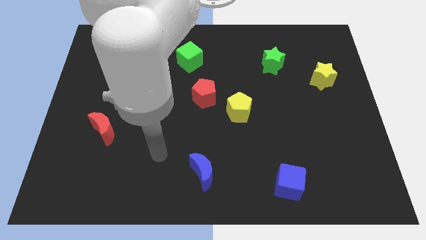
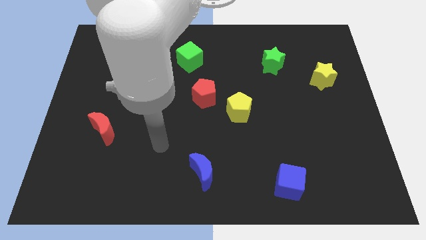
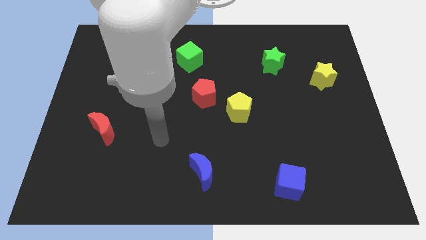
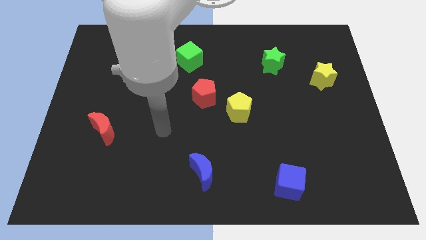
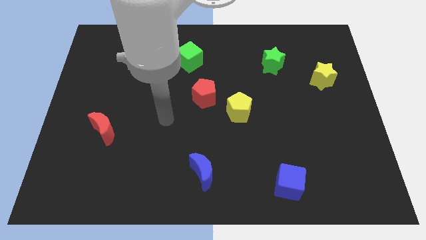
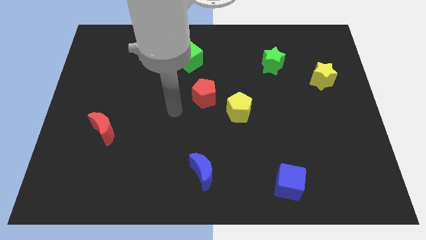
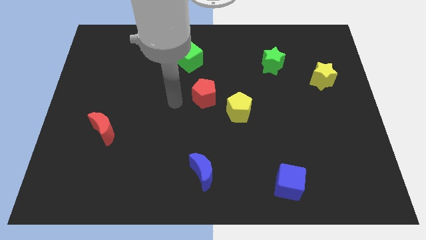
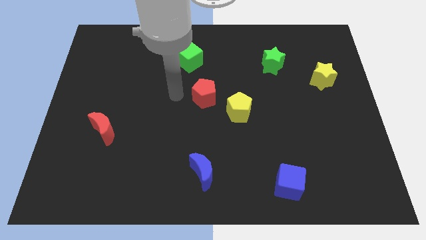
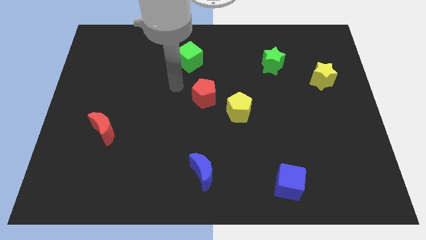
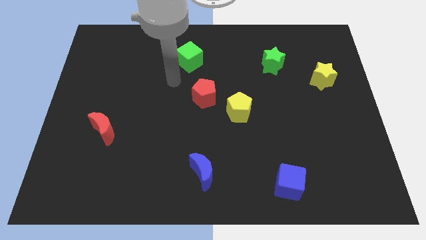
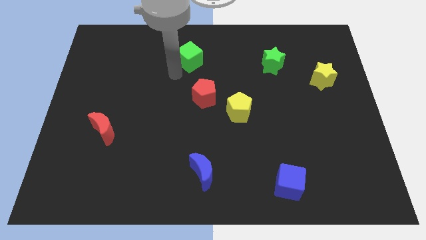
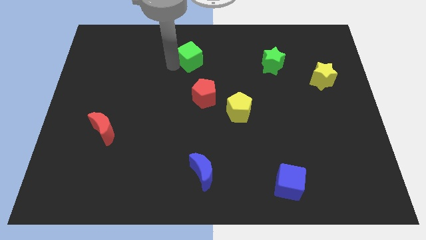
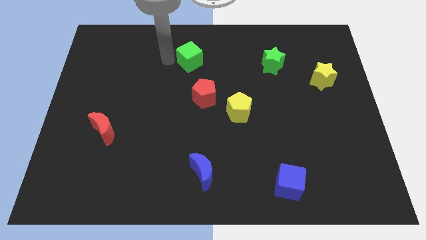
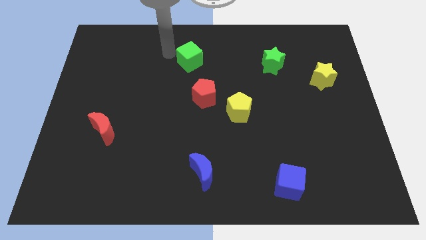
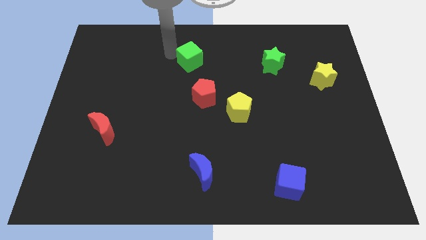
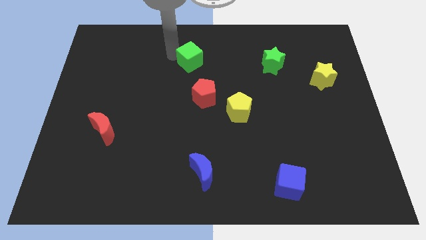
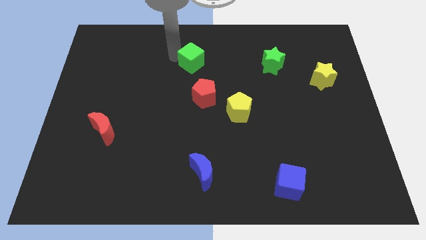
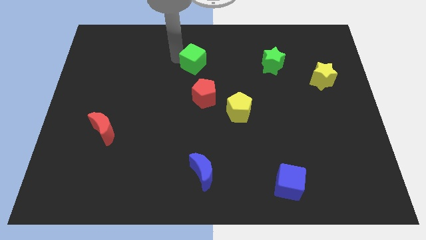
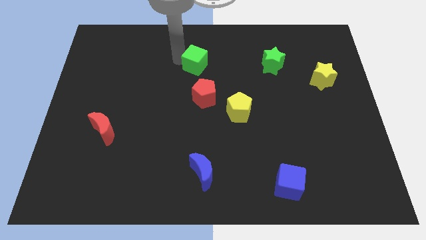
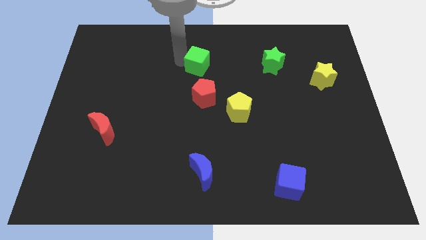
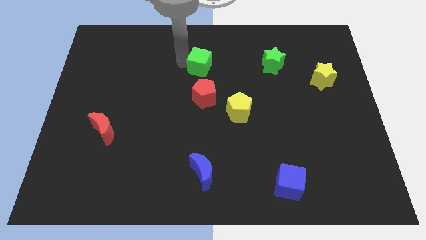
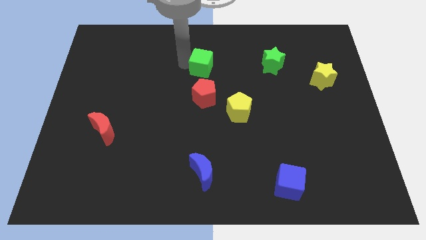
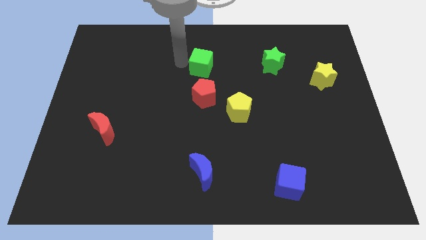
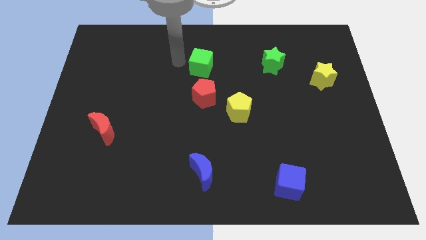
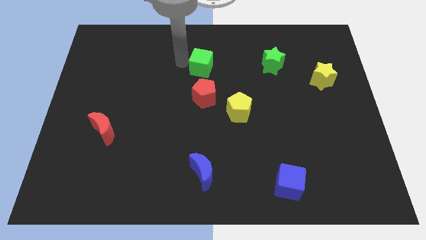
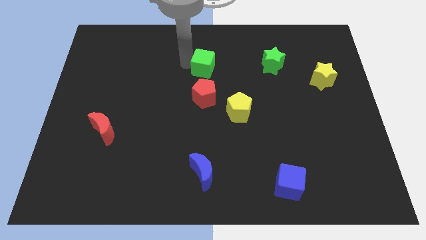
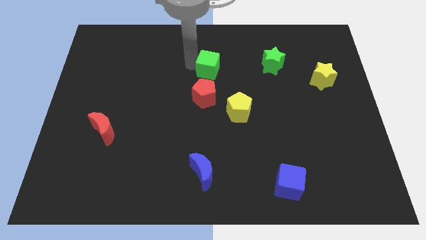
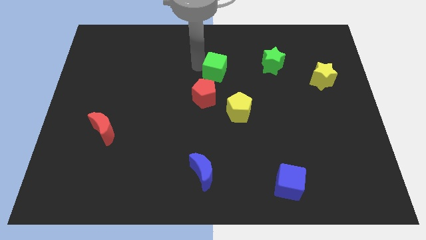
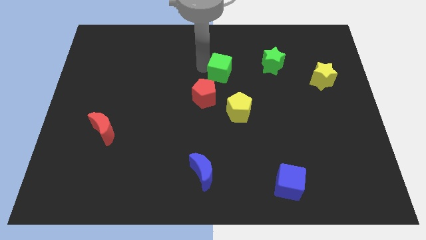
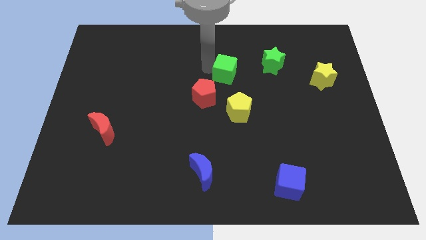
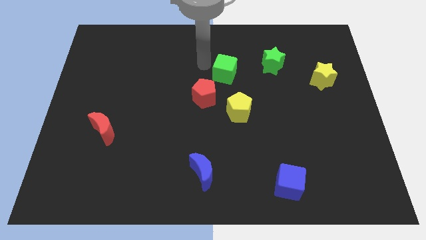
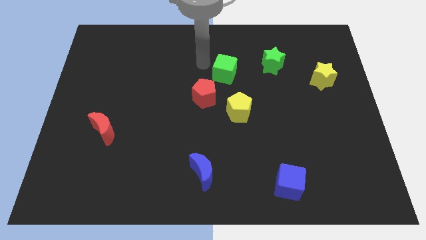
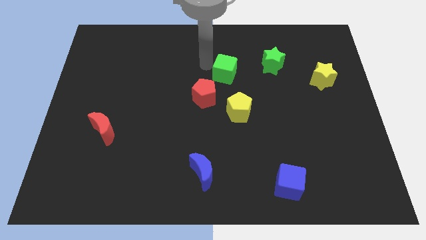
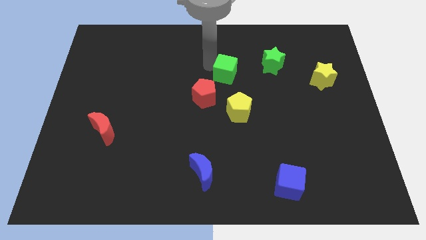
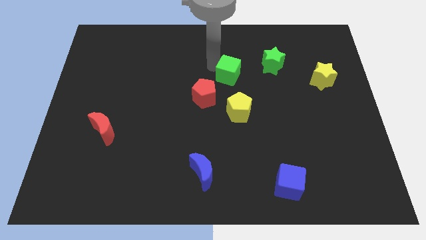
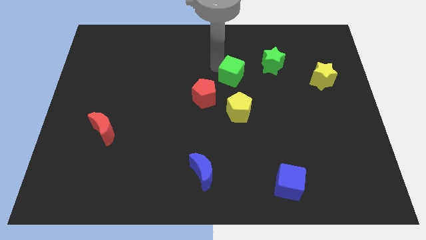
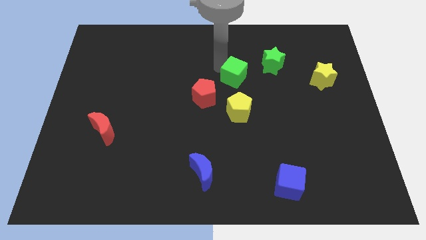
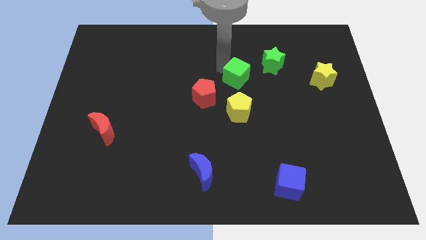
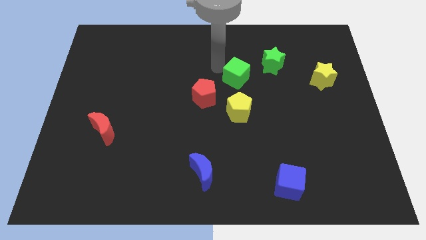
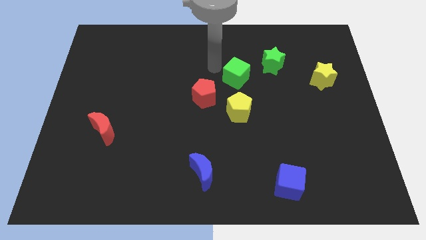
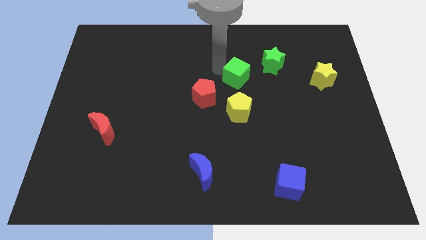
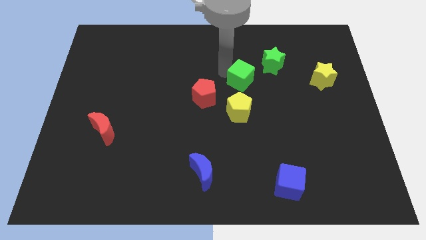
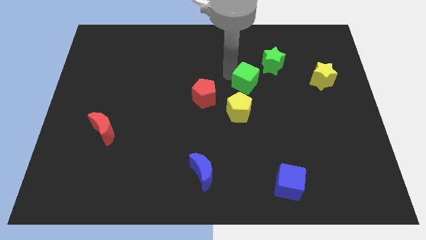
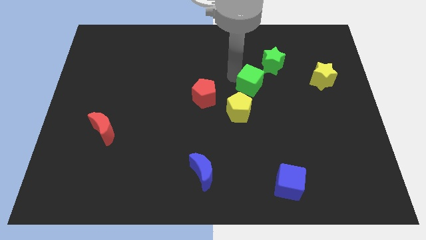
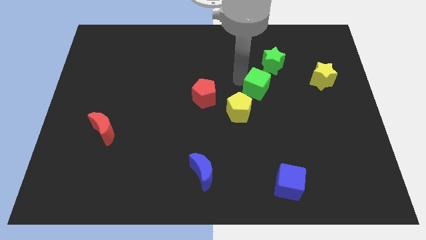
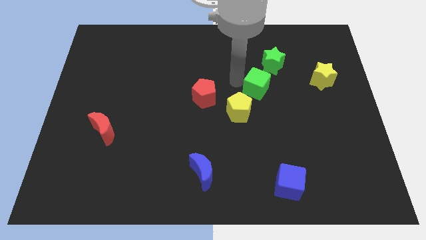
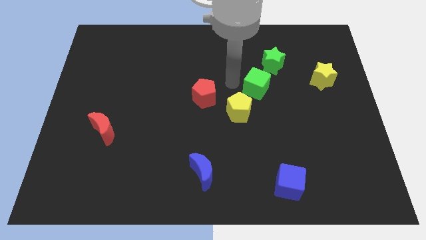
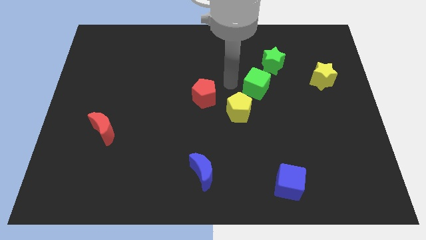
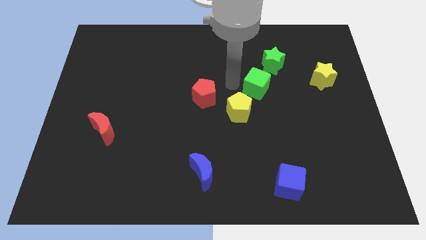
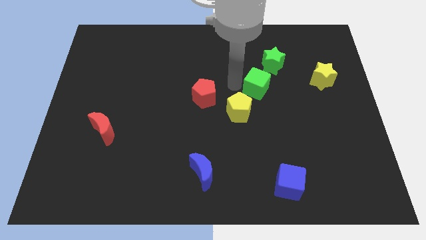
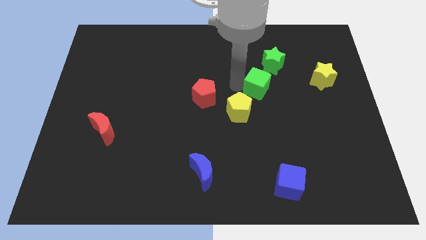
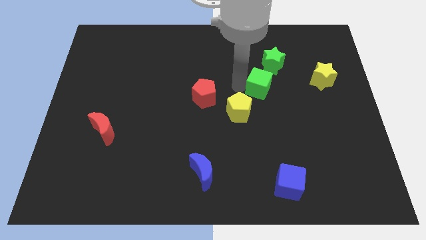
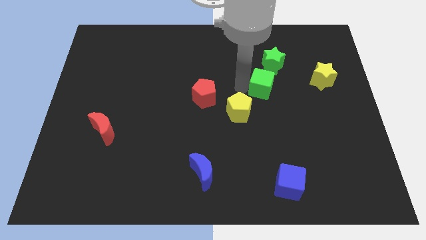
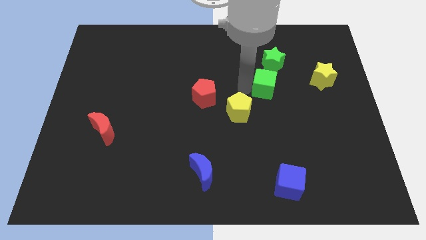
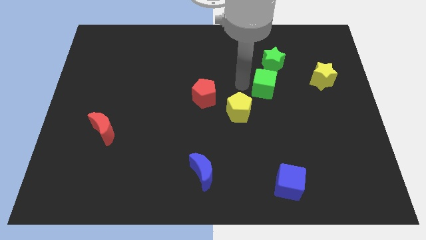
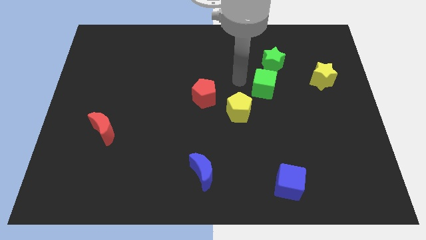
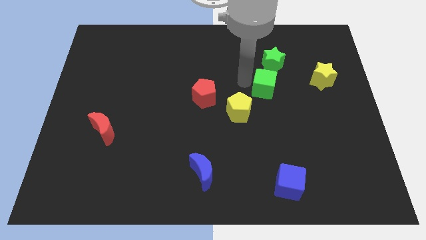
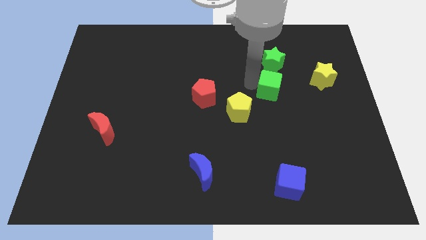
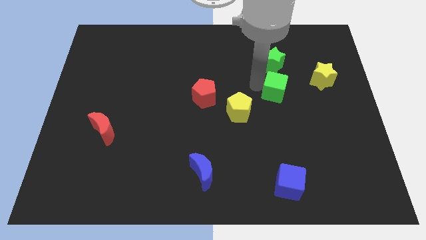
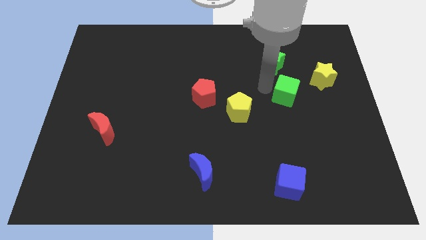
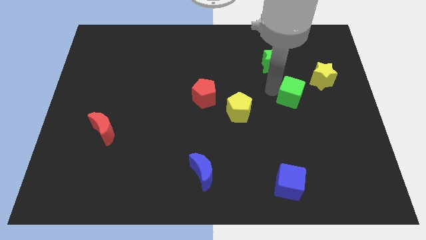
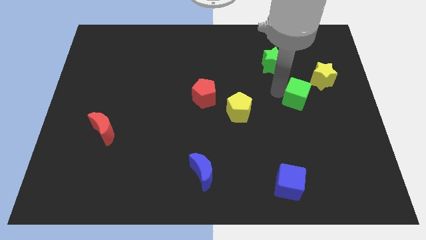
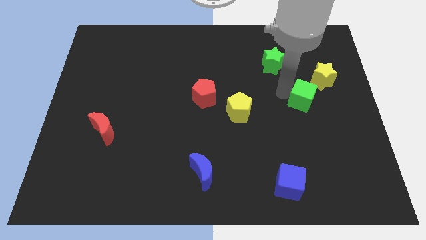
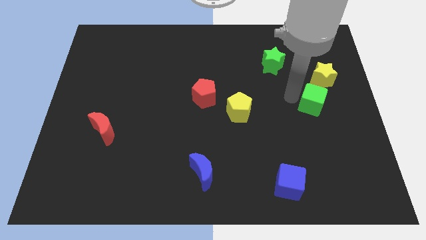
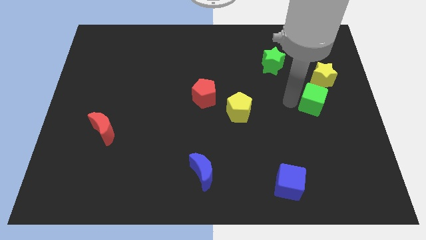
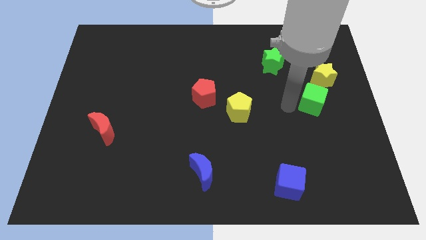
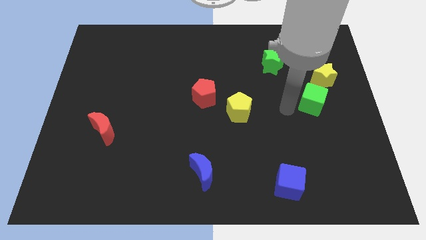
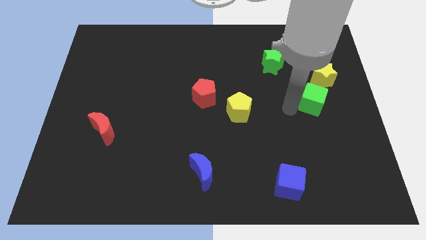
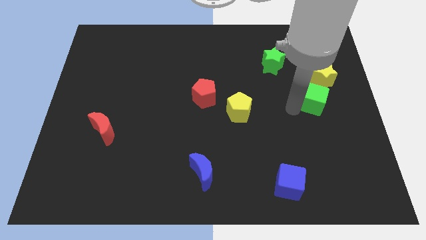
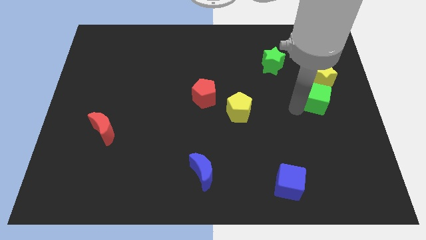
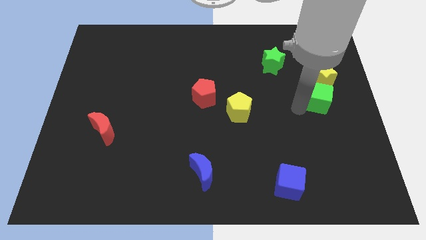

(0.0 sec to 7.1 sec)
push the green cube to the right side of the board
